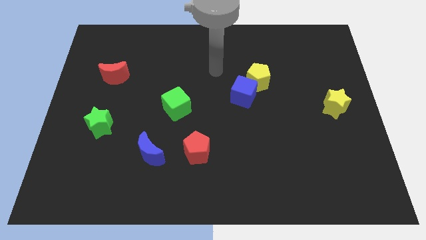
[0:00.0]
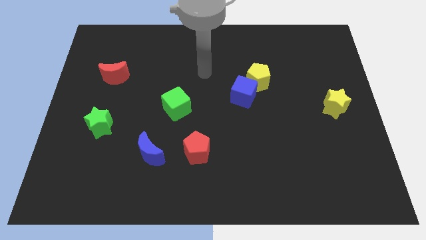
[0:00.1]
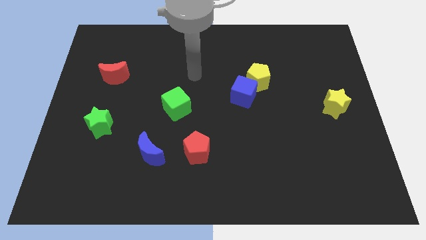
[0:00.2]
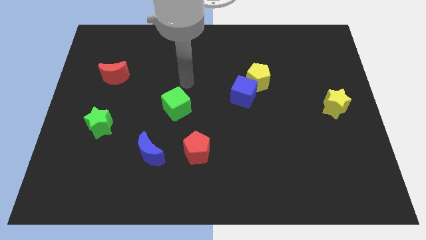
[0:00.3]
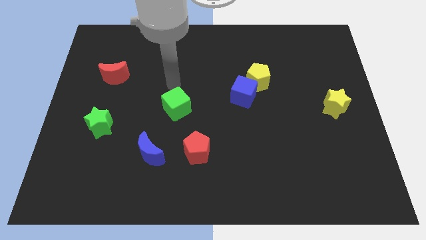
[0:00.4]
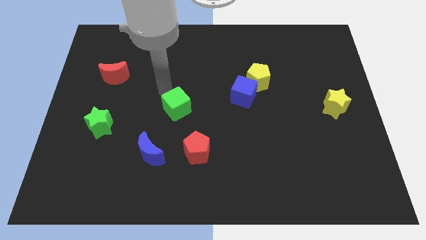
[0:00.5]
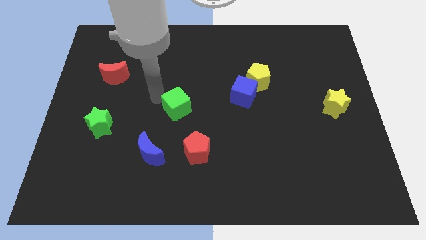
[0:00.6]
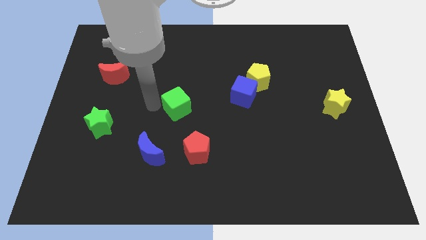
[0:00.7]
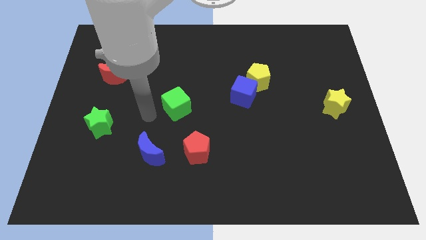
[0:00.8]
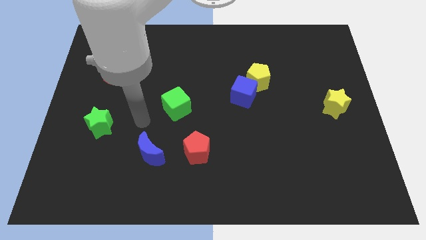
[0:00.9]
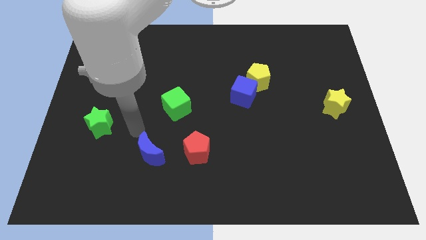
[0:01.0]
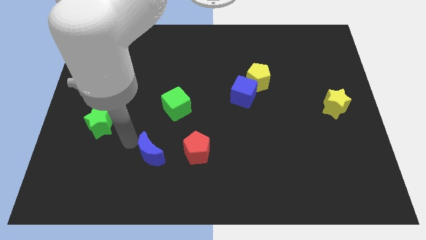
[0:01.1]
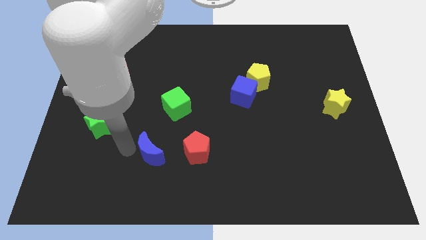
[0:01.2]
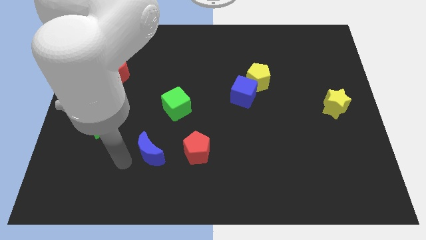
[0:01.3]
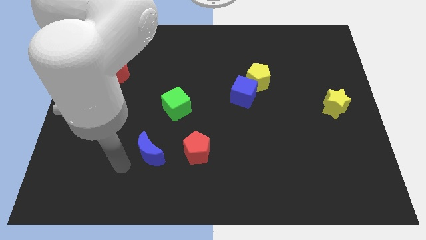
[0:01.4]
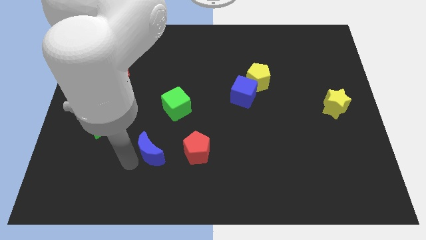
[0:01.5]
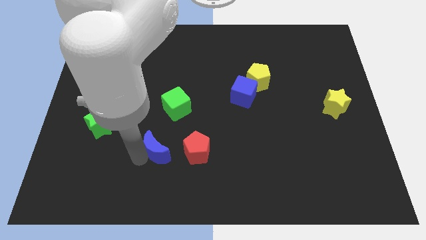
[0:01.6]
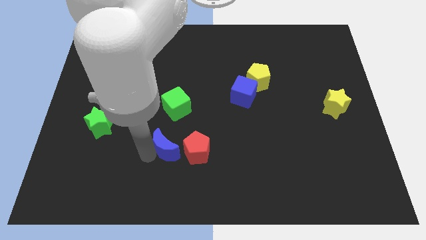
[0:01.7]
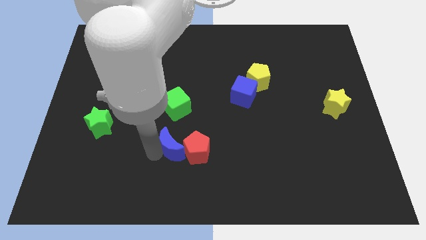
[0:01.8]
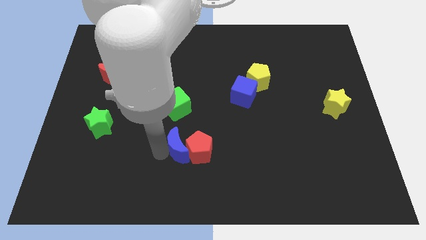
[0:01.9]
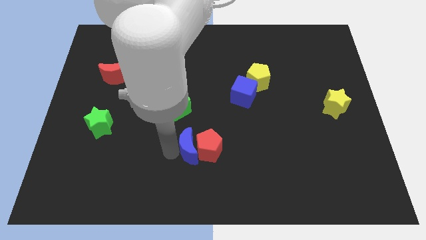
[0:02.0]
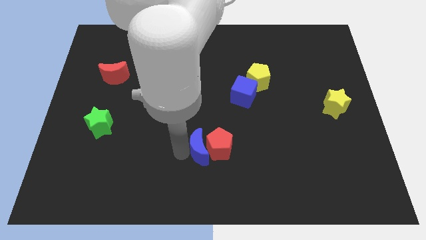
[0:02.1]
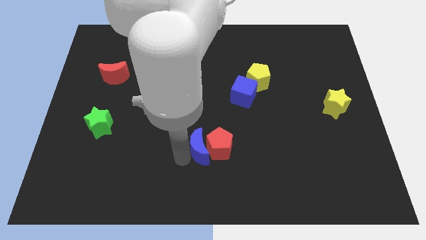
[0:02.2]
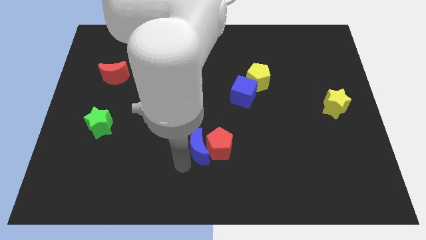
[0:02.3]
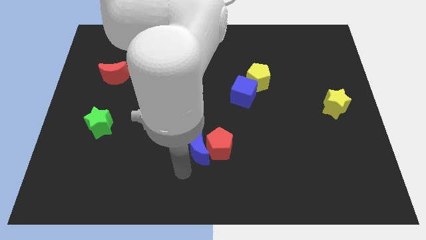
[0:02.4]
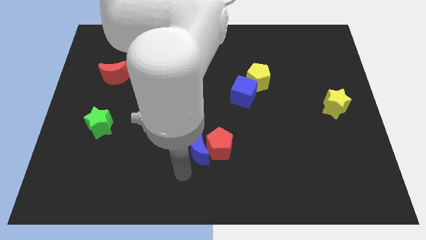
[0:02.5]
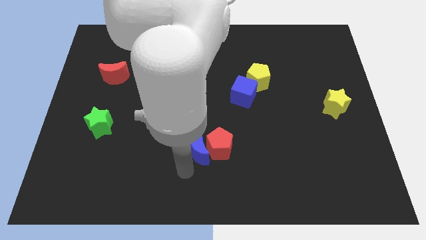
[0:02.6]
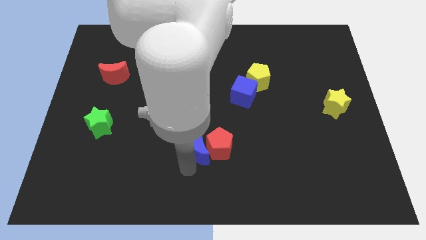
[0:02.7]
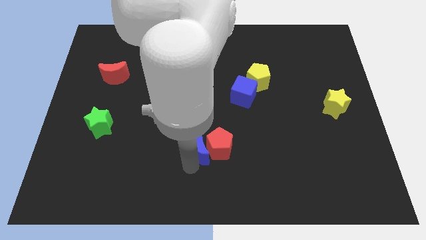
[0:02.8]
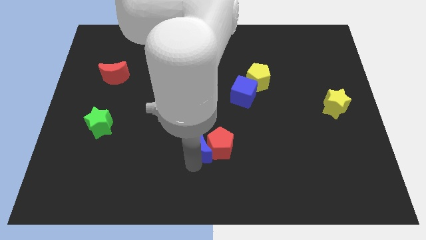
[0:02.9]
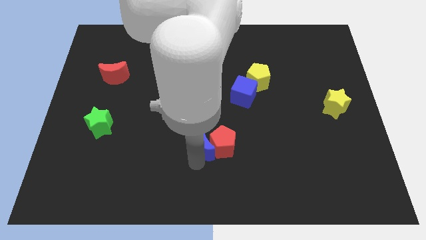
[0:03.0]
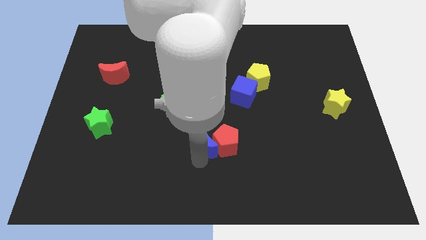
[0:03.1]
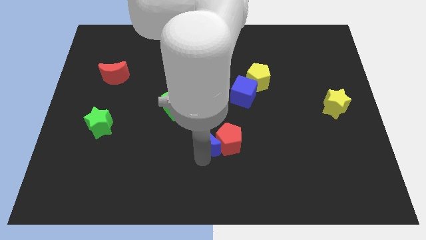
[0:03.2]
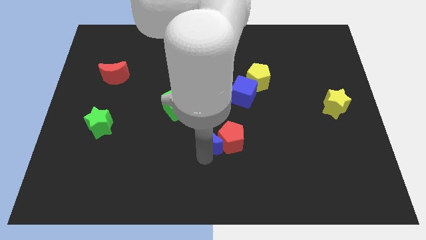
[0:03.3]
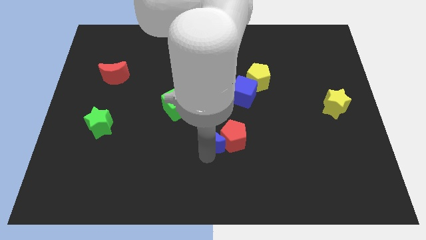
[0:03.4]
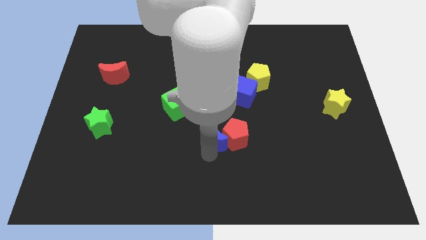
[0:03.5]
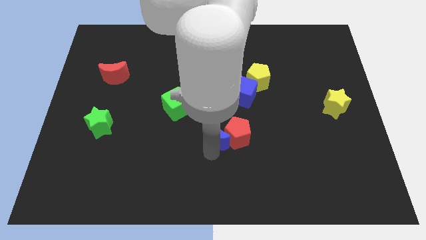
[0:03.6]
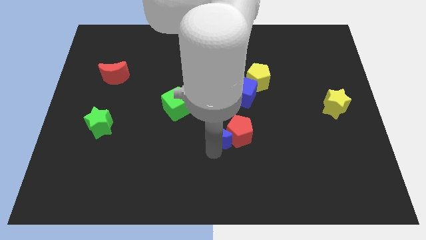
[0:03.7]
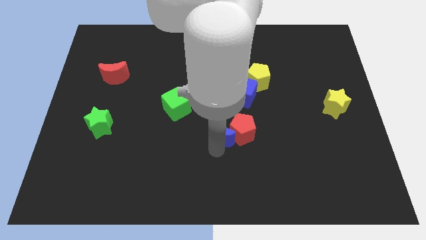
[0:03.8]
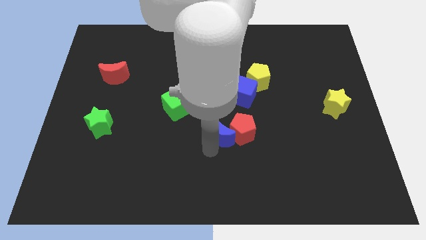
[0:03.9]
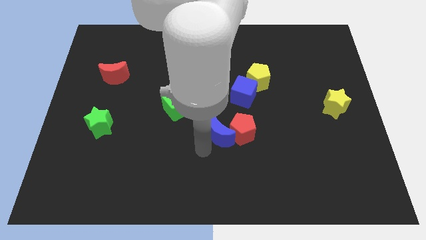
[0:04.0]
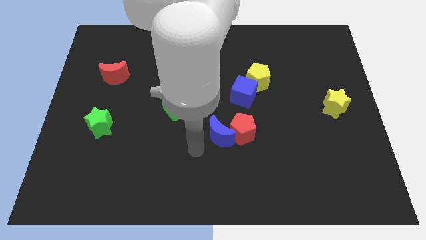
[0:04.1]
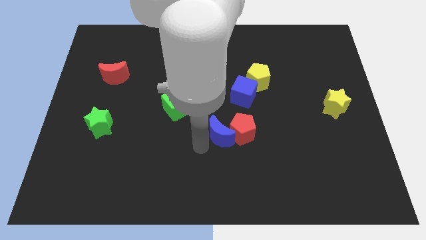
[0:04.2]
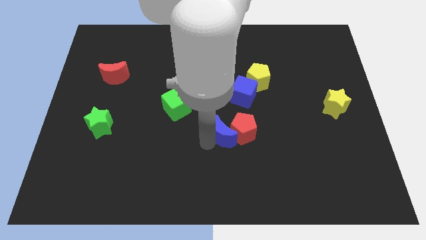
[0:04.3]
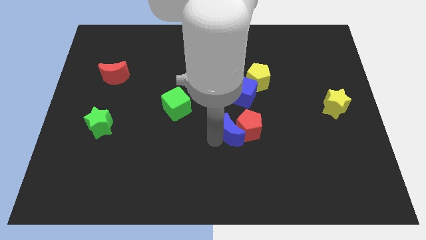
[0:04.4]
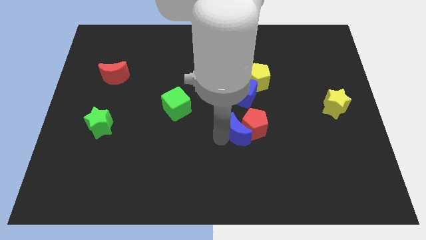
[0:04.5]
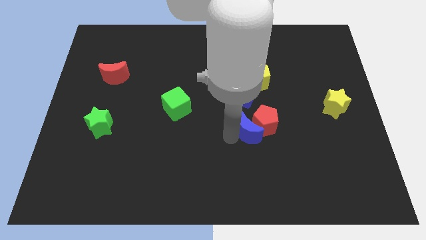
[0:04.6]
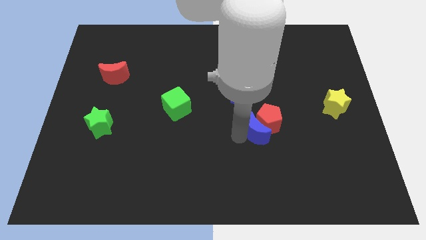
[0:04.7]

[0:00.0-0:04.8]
push the blue moon to the bottom of the yellow pentagon

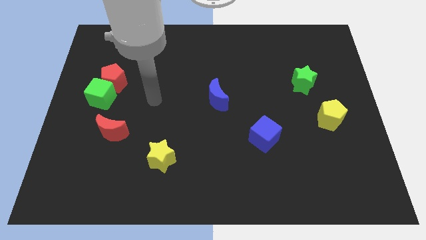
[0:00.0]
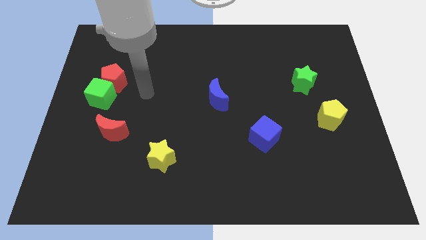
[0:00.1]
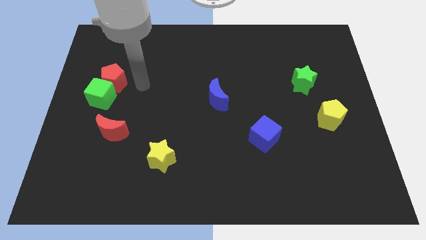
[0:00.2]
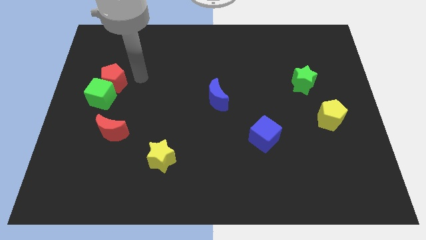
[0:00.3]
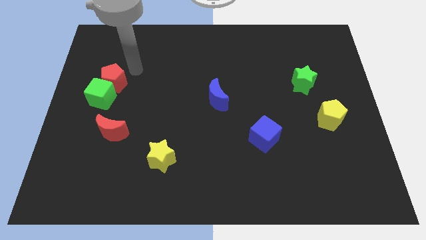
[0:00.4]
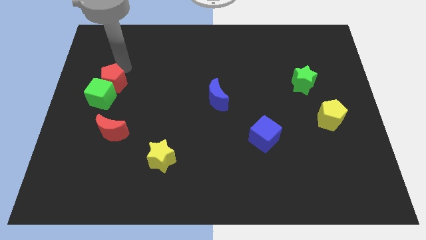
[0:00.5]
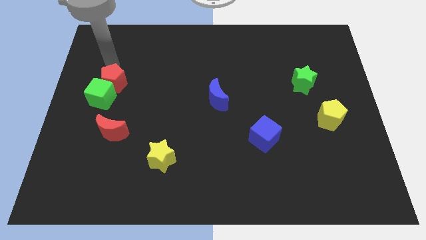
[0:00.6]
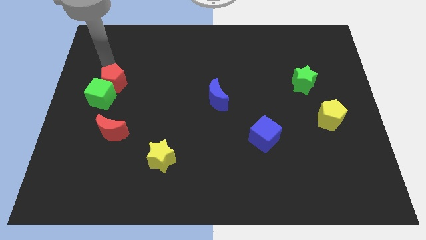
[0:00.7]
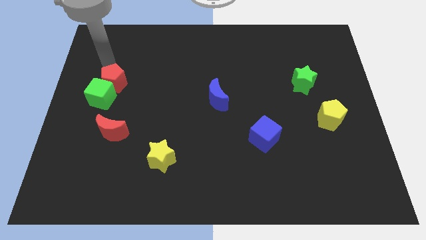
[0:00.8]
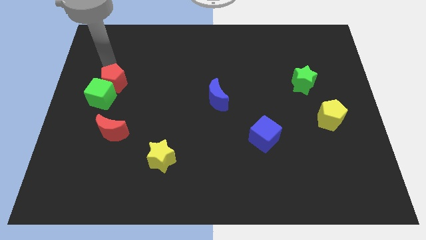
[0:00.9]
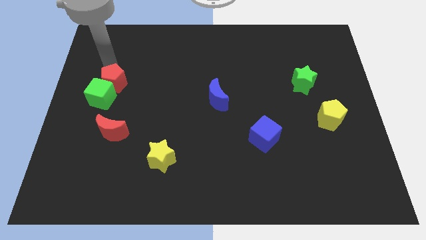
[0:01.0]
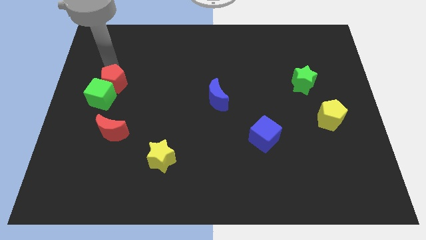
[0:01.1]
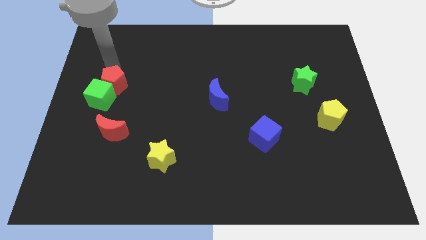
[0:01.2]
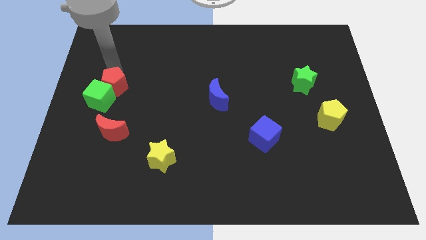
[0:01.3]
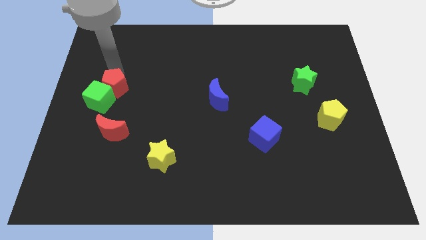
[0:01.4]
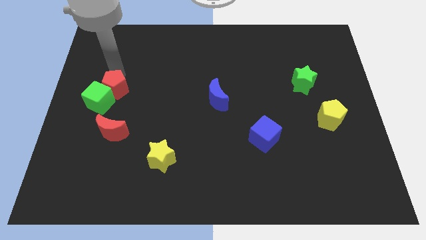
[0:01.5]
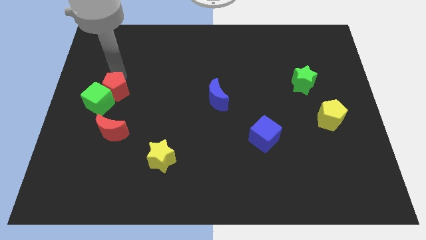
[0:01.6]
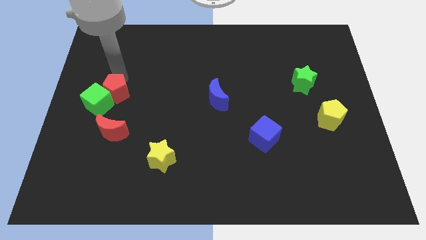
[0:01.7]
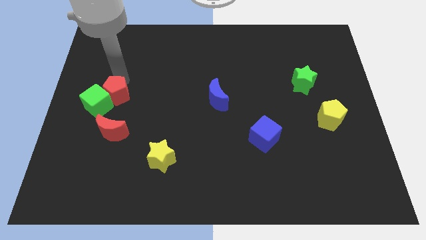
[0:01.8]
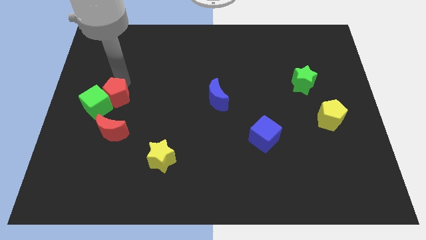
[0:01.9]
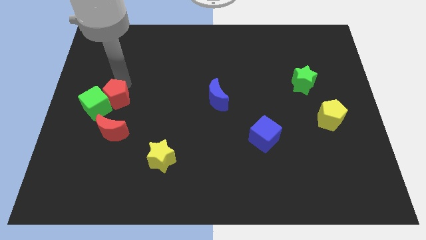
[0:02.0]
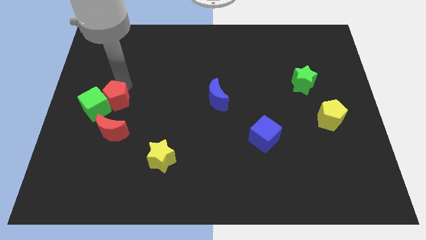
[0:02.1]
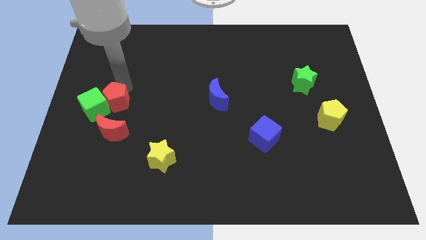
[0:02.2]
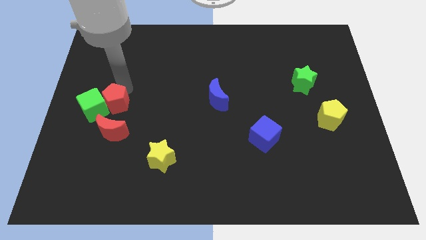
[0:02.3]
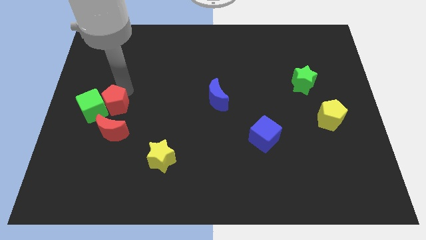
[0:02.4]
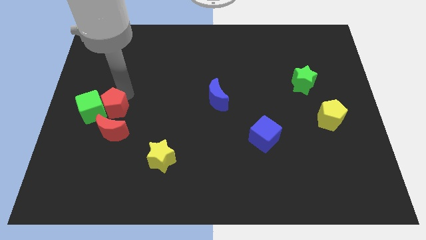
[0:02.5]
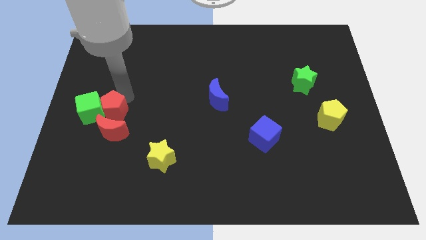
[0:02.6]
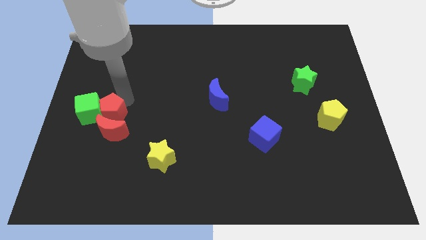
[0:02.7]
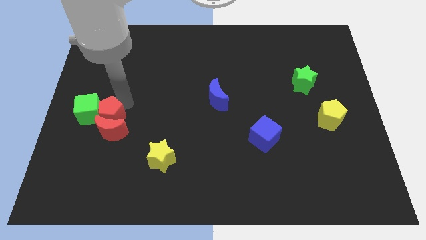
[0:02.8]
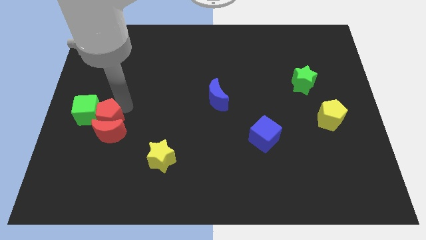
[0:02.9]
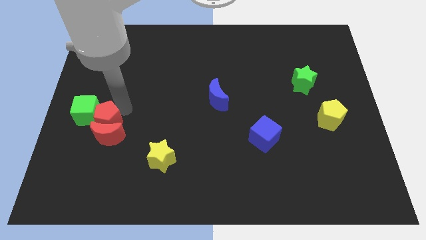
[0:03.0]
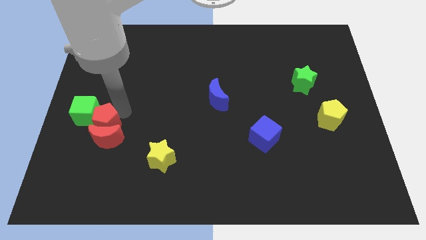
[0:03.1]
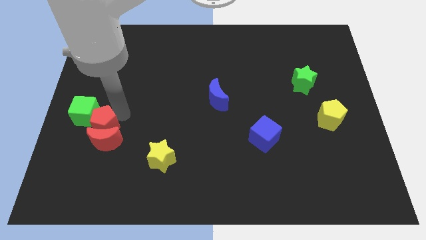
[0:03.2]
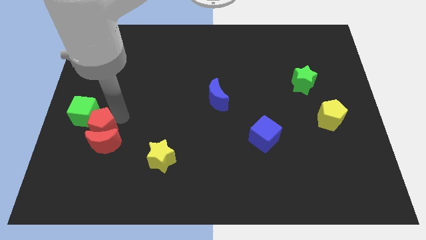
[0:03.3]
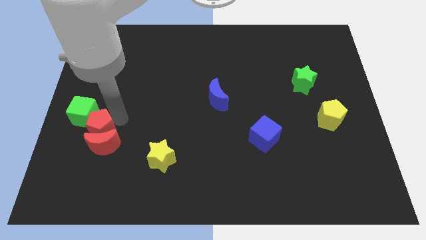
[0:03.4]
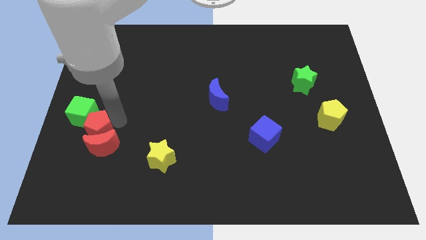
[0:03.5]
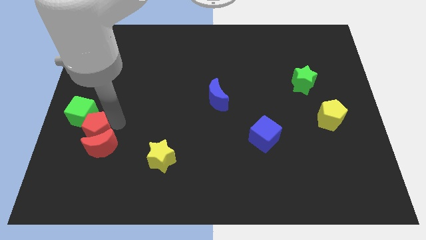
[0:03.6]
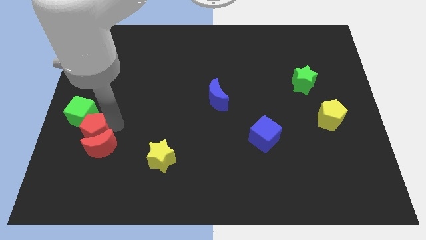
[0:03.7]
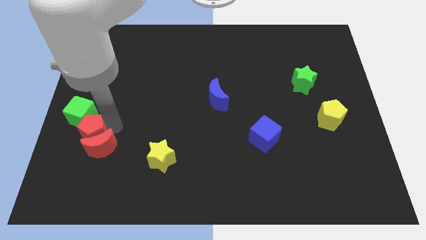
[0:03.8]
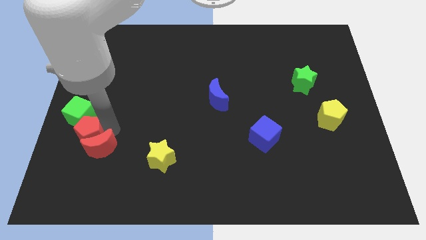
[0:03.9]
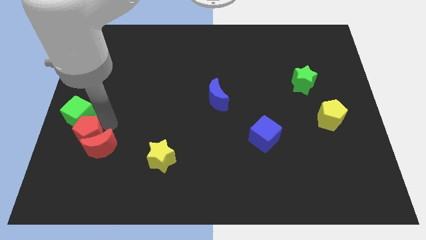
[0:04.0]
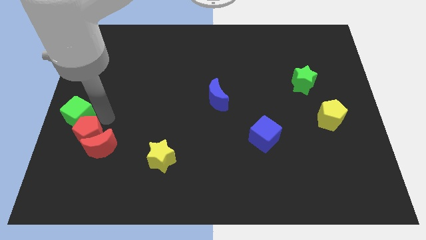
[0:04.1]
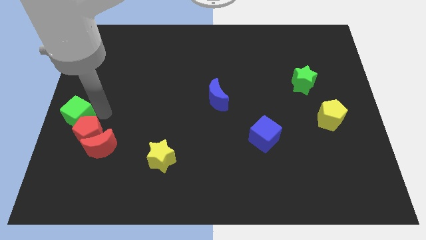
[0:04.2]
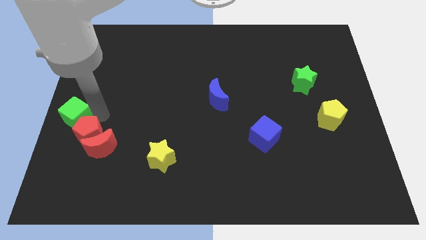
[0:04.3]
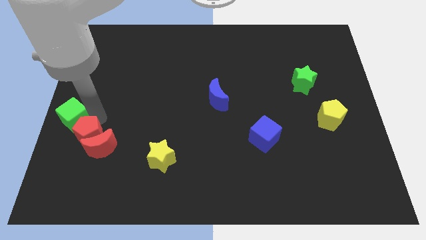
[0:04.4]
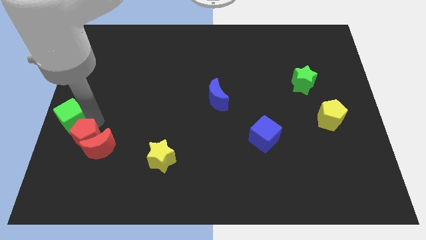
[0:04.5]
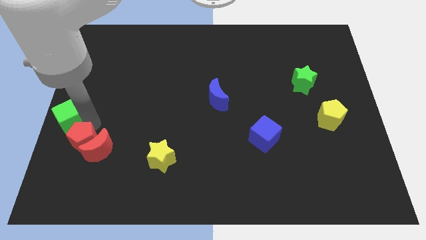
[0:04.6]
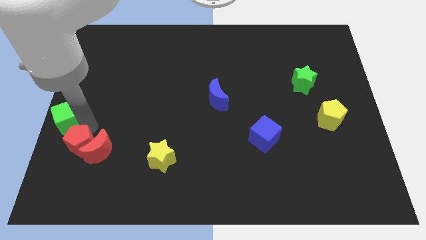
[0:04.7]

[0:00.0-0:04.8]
put the red pentagon to the bottom left side of the red moon
